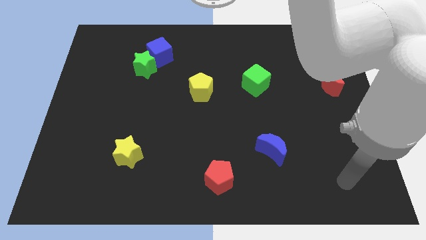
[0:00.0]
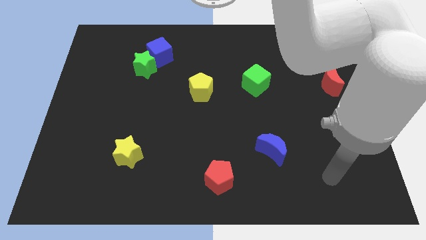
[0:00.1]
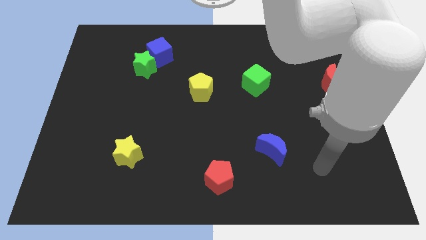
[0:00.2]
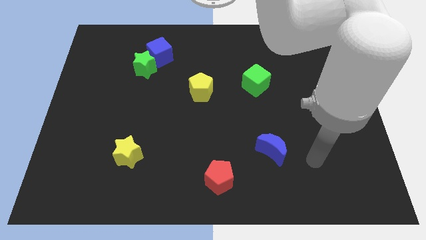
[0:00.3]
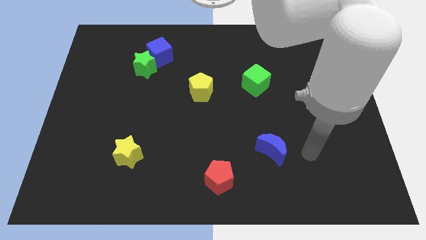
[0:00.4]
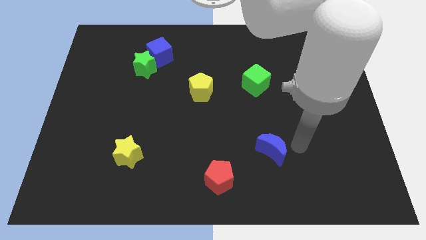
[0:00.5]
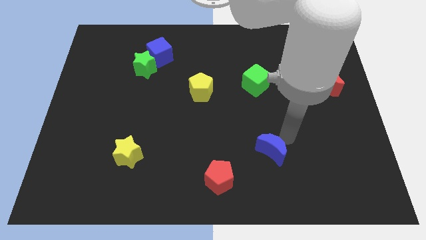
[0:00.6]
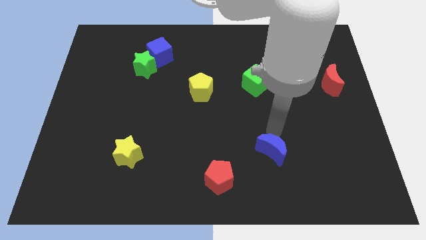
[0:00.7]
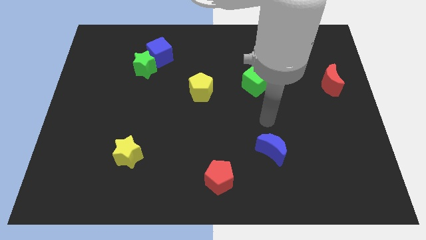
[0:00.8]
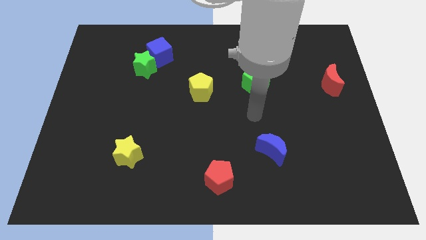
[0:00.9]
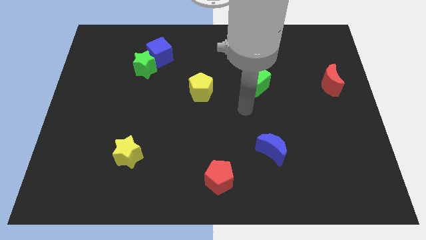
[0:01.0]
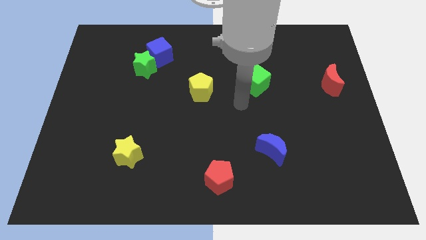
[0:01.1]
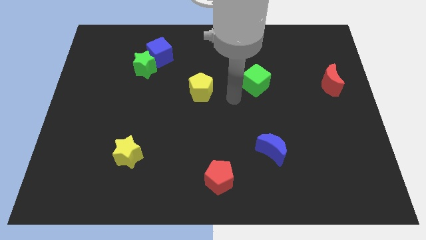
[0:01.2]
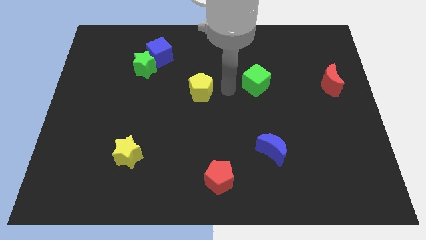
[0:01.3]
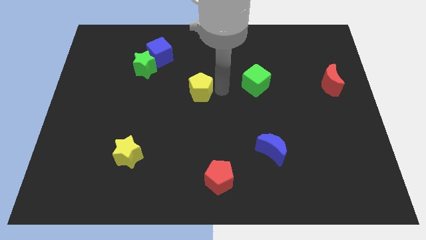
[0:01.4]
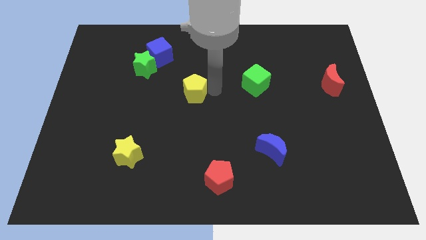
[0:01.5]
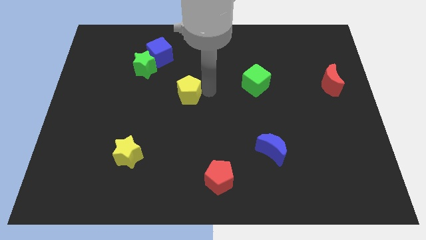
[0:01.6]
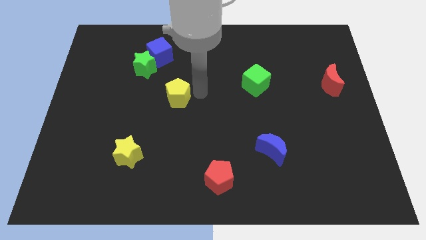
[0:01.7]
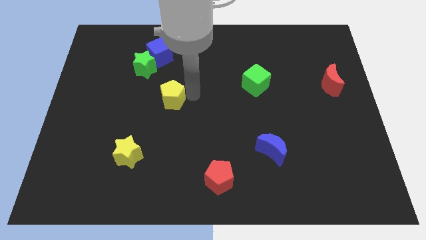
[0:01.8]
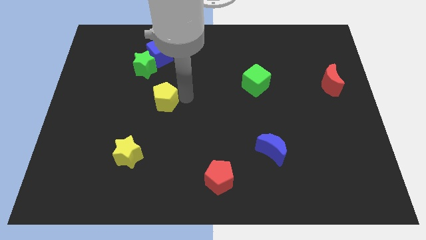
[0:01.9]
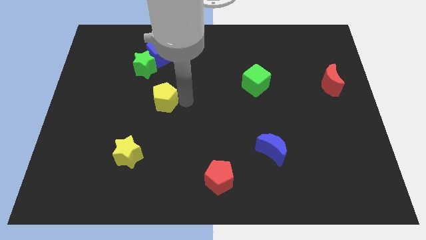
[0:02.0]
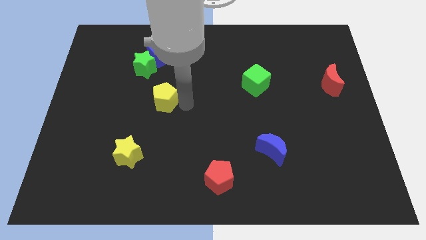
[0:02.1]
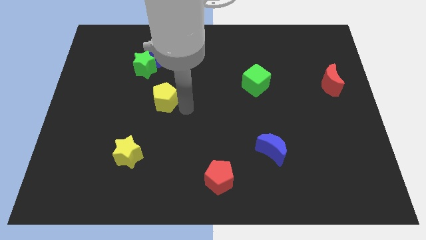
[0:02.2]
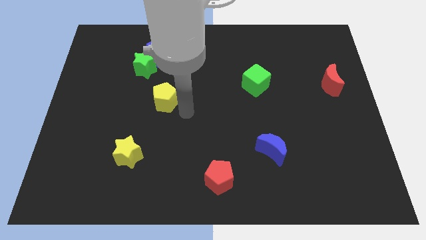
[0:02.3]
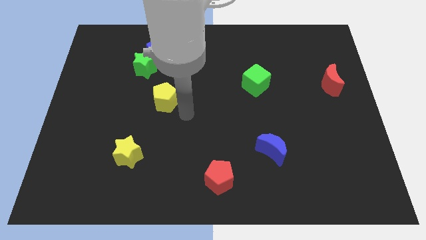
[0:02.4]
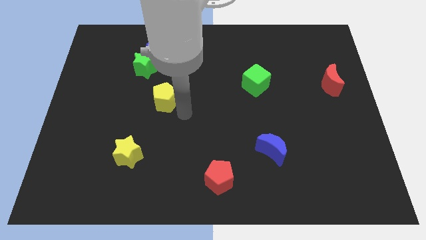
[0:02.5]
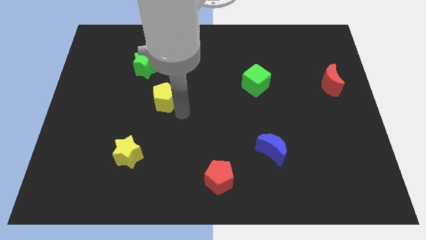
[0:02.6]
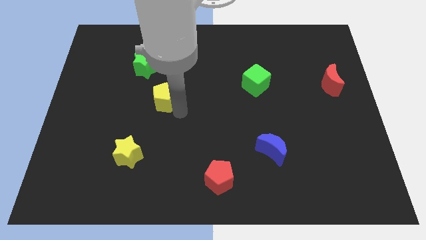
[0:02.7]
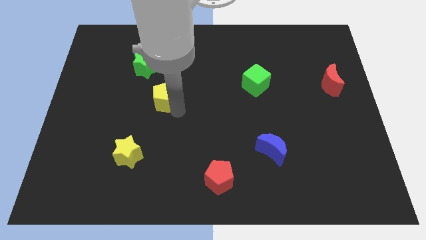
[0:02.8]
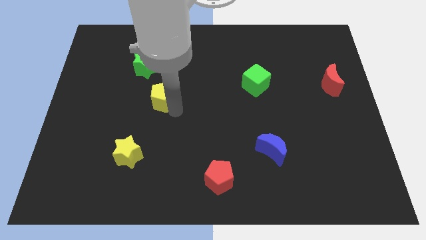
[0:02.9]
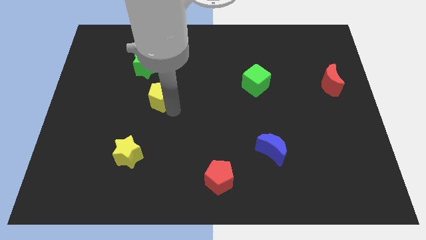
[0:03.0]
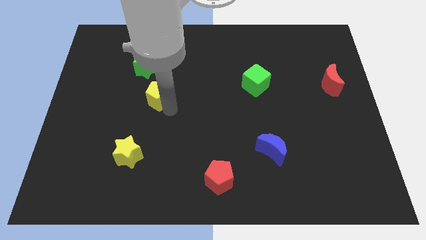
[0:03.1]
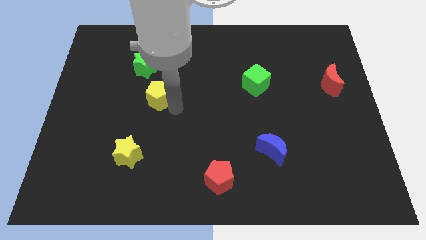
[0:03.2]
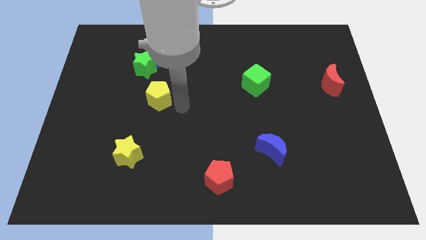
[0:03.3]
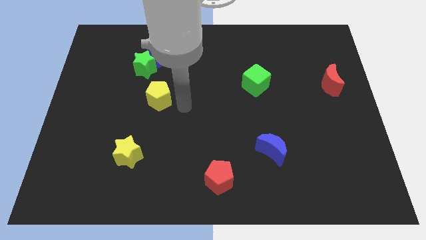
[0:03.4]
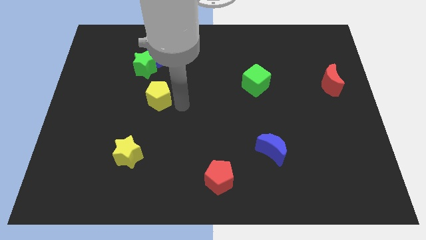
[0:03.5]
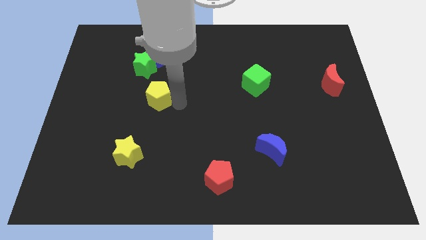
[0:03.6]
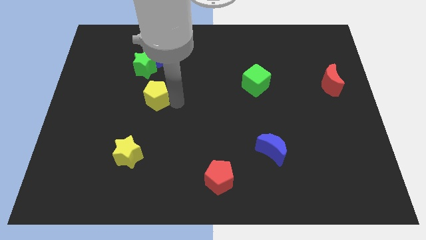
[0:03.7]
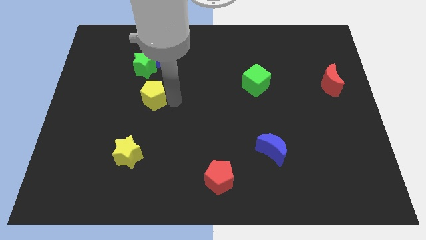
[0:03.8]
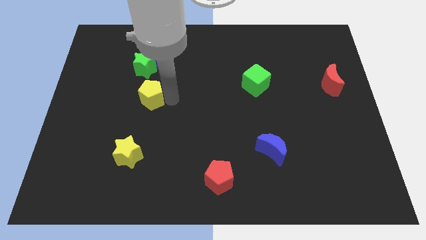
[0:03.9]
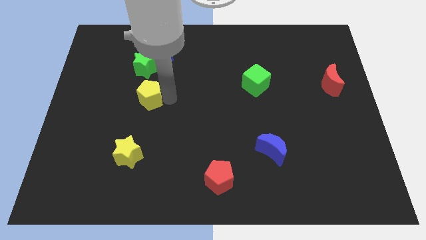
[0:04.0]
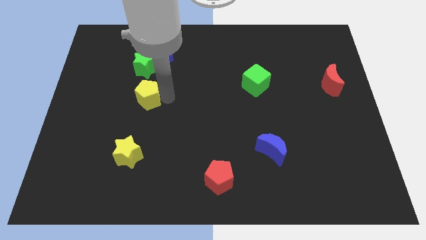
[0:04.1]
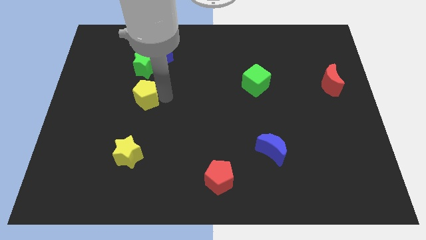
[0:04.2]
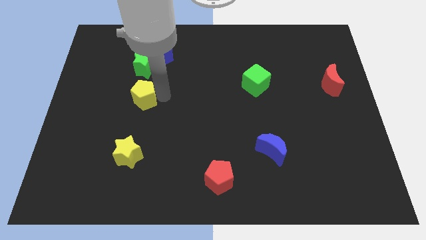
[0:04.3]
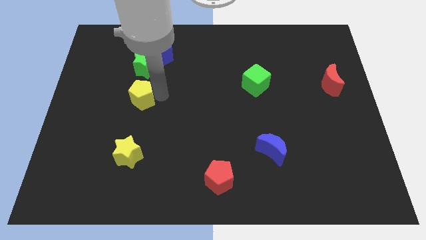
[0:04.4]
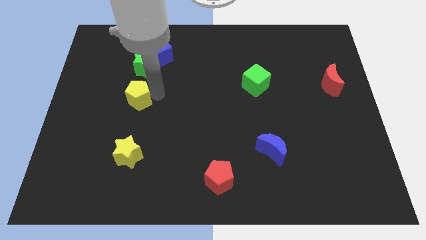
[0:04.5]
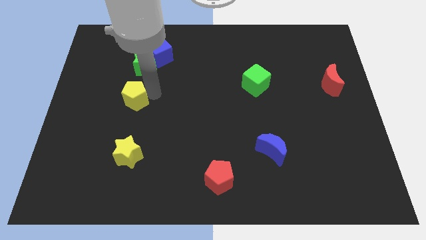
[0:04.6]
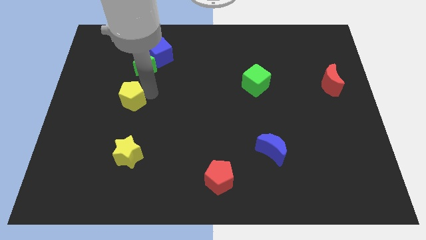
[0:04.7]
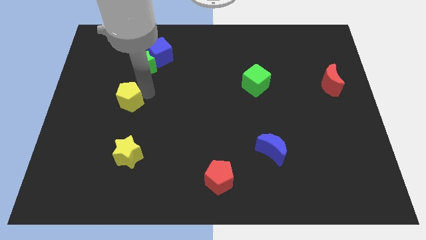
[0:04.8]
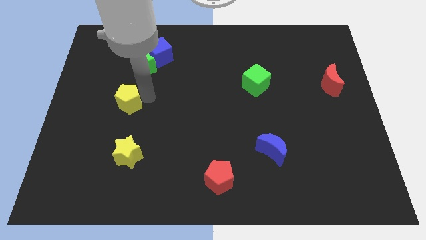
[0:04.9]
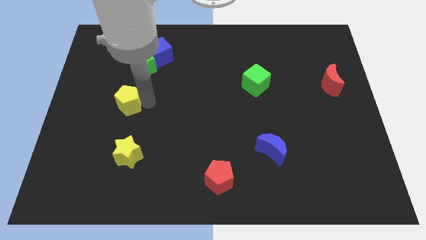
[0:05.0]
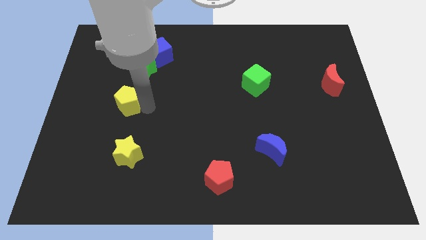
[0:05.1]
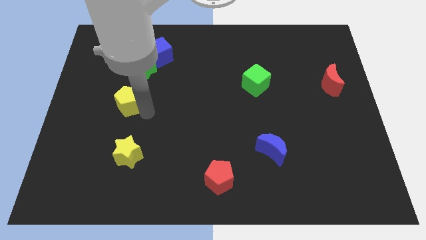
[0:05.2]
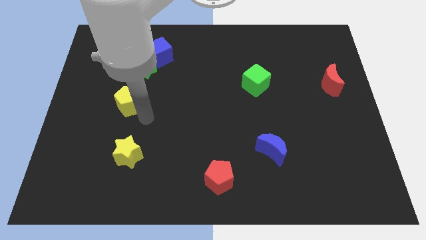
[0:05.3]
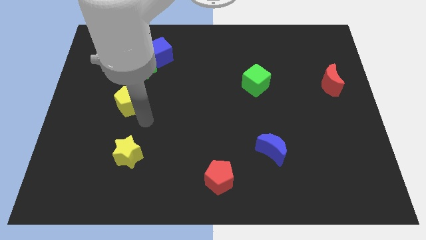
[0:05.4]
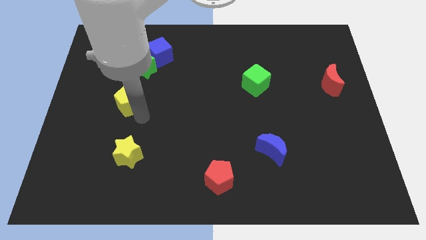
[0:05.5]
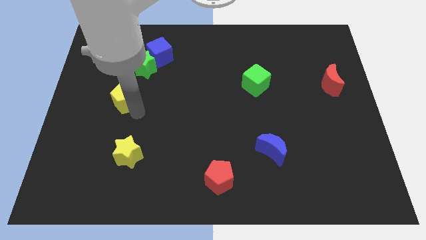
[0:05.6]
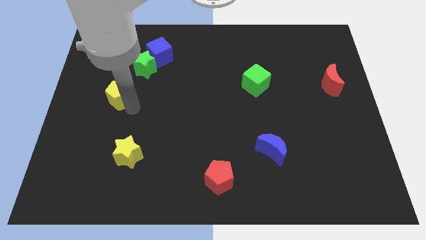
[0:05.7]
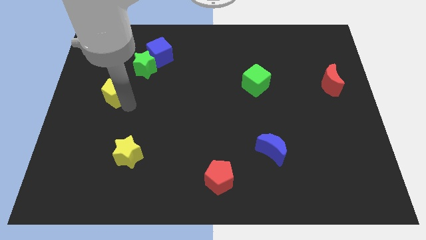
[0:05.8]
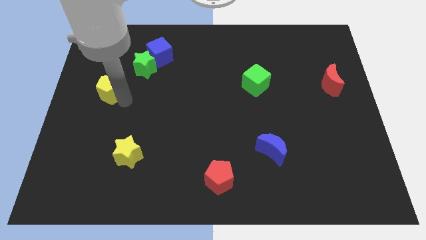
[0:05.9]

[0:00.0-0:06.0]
slide the yellow pentagon to the left side
